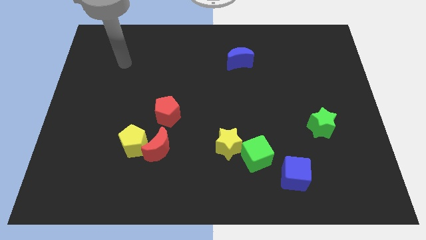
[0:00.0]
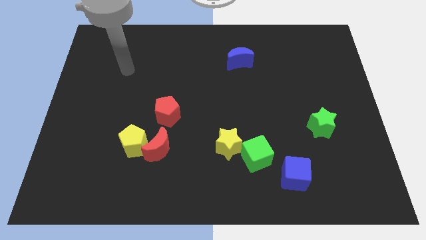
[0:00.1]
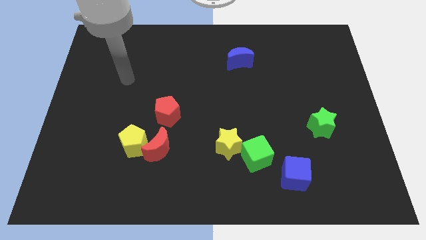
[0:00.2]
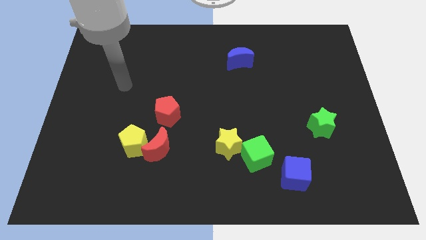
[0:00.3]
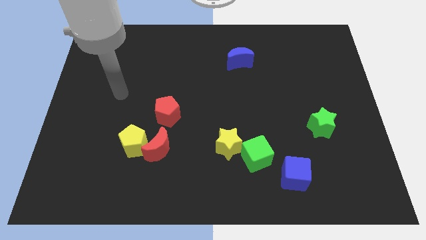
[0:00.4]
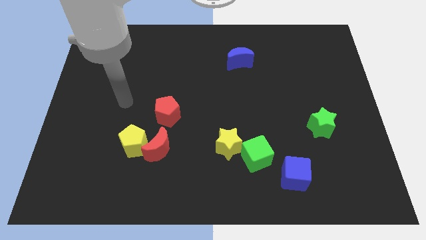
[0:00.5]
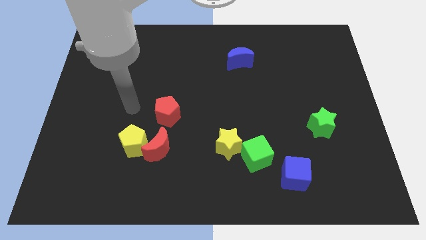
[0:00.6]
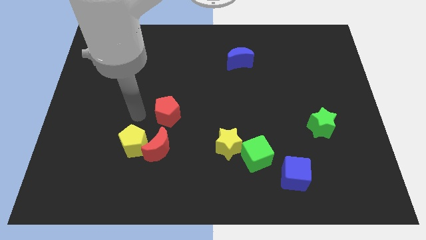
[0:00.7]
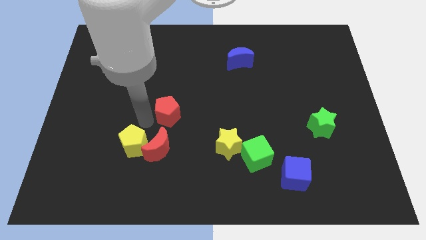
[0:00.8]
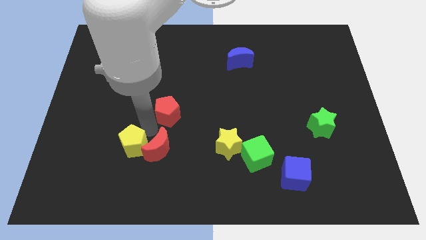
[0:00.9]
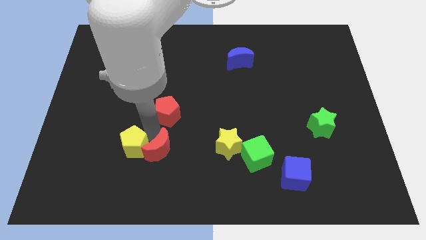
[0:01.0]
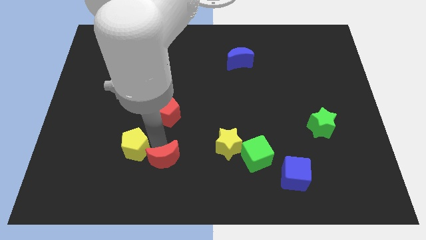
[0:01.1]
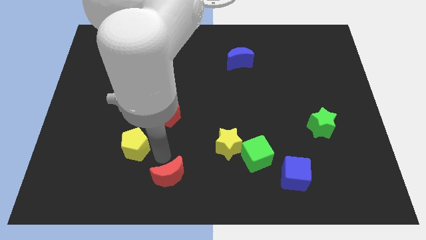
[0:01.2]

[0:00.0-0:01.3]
pull the yellow pentagon apart from the red moon

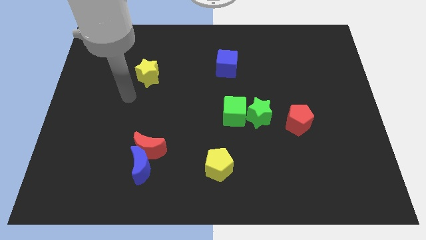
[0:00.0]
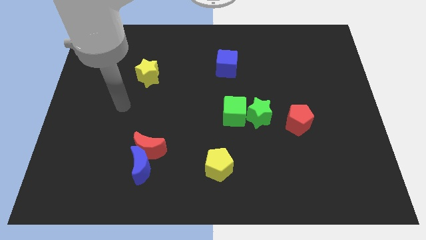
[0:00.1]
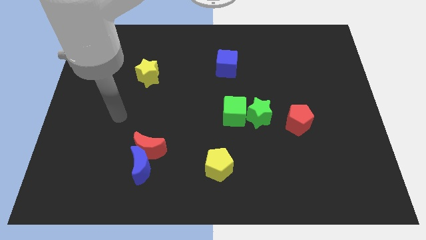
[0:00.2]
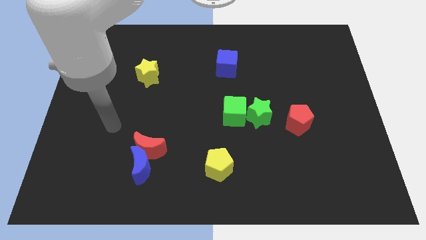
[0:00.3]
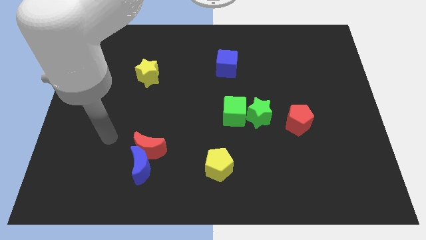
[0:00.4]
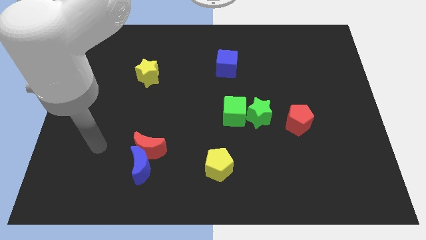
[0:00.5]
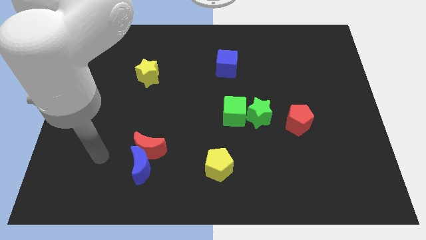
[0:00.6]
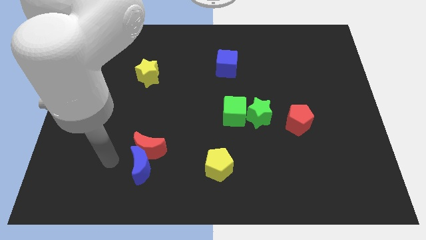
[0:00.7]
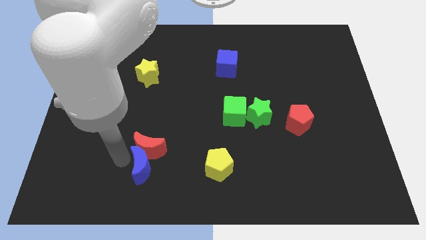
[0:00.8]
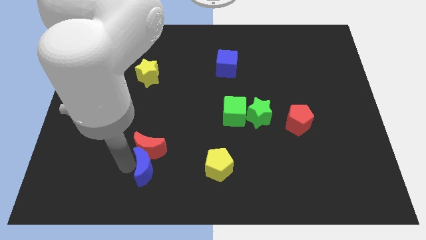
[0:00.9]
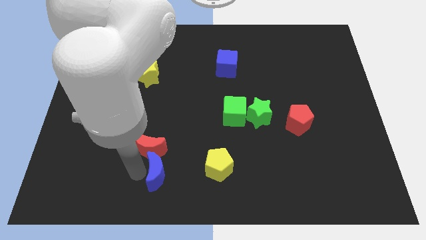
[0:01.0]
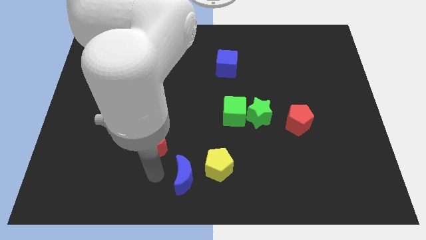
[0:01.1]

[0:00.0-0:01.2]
pull the red moon apart from the blue moon

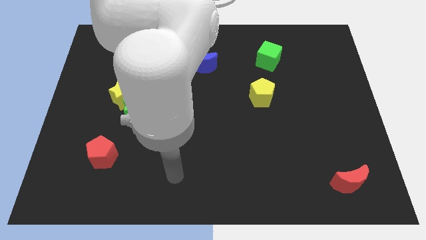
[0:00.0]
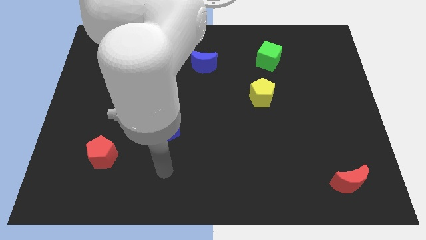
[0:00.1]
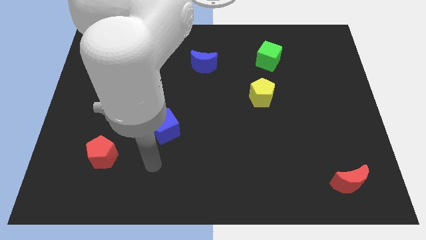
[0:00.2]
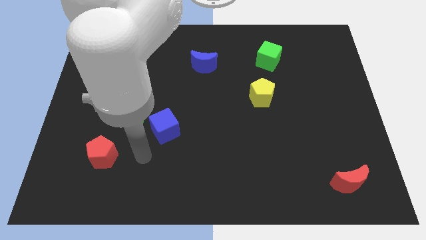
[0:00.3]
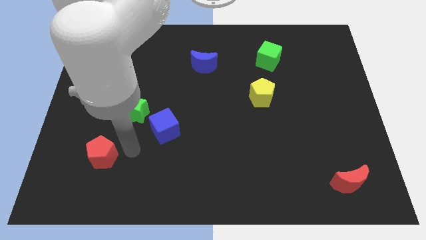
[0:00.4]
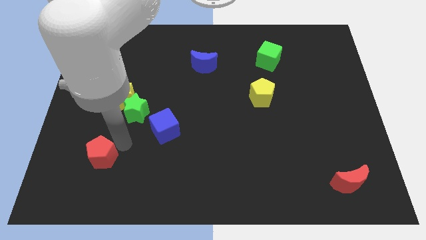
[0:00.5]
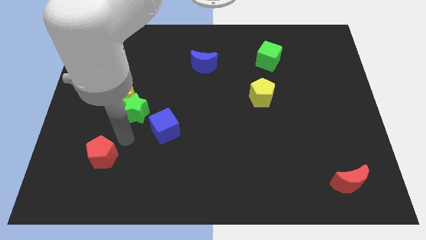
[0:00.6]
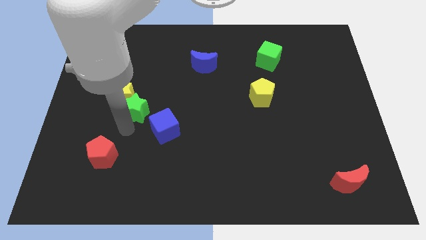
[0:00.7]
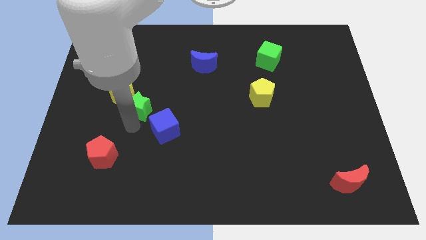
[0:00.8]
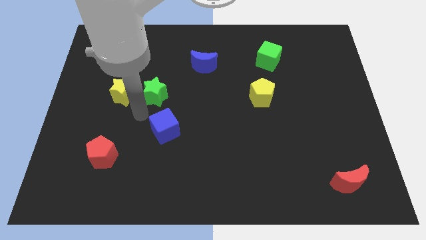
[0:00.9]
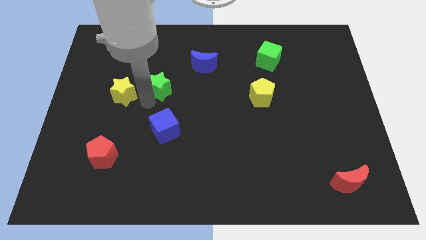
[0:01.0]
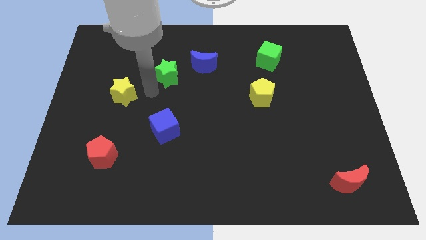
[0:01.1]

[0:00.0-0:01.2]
pull the yellow star apart from the green star

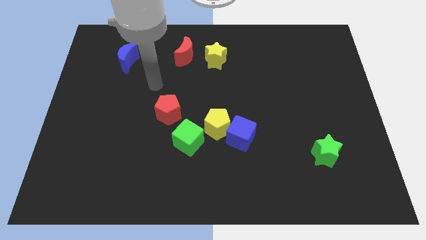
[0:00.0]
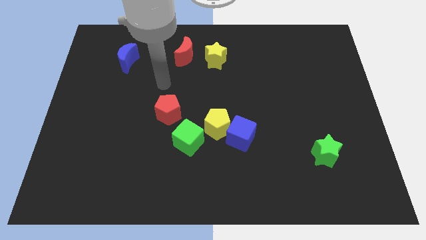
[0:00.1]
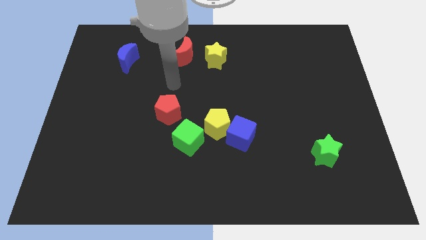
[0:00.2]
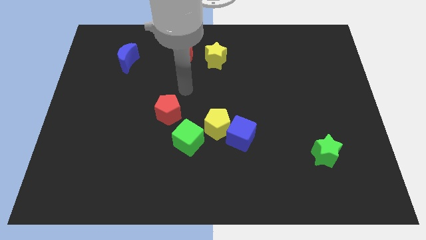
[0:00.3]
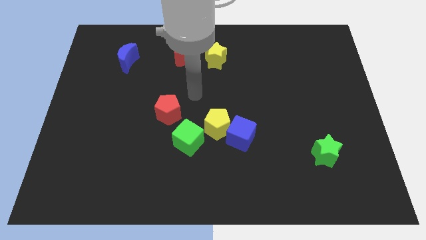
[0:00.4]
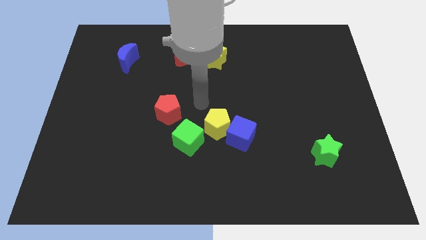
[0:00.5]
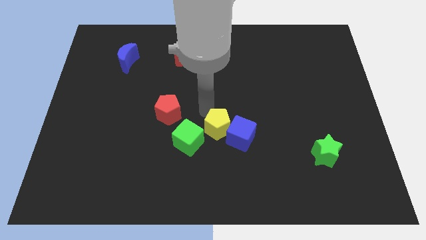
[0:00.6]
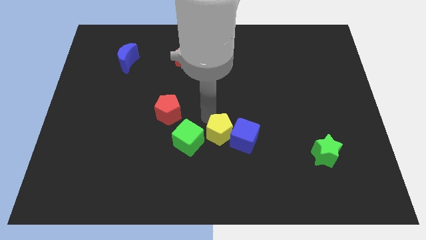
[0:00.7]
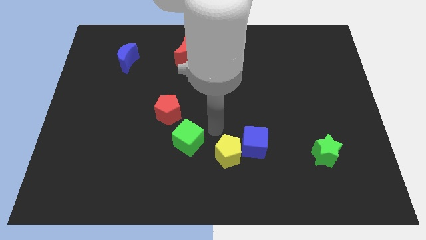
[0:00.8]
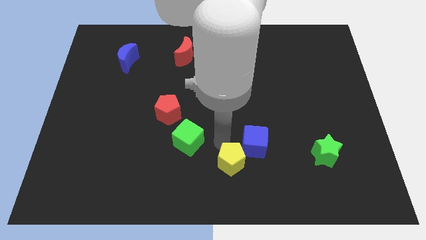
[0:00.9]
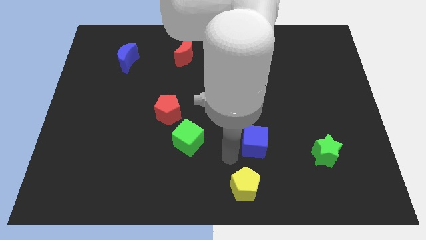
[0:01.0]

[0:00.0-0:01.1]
move the blue cube away from the yellow pentagon

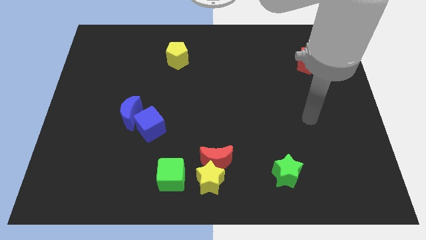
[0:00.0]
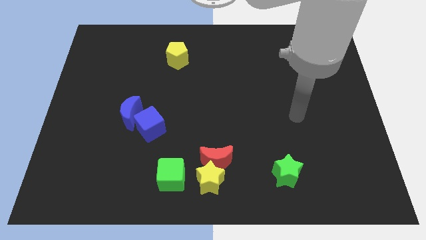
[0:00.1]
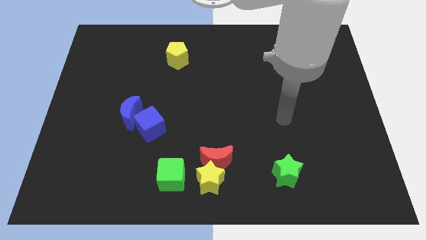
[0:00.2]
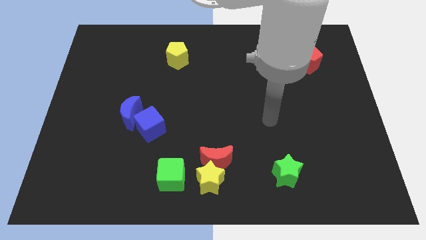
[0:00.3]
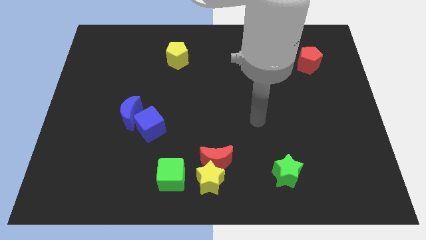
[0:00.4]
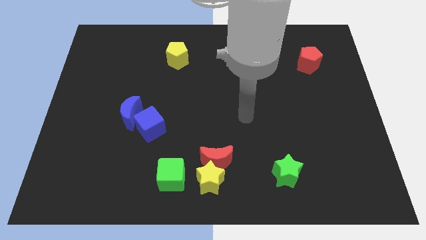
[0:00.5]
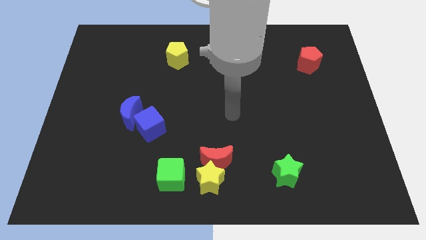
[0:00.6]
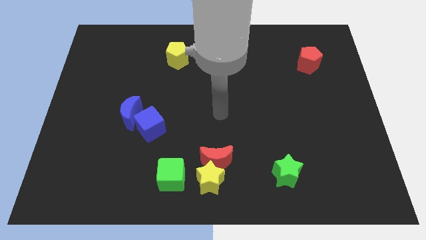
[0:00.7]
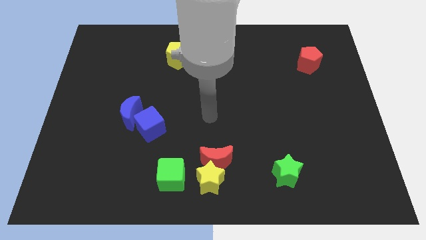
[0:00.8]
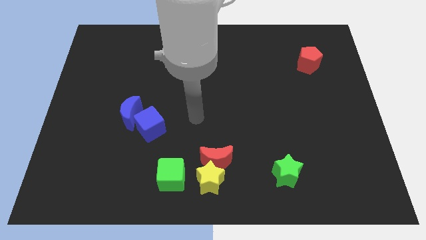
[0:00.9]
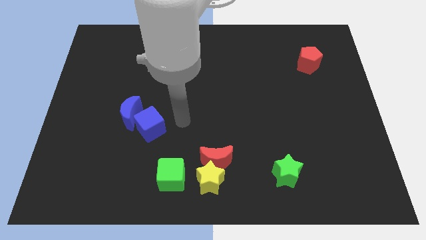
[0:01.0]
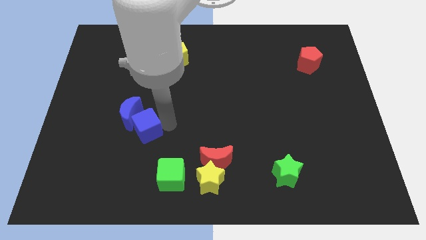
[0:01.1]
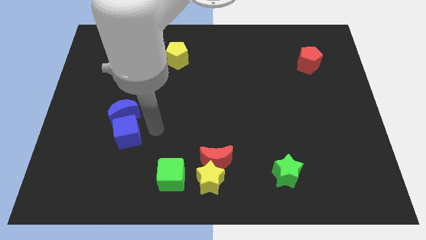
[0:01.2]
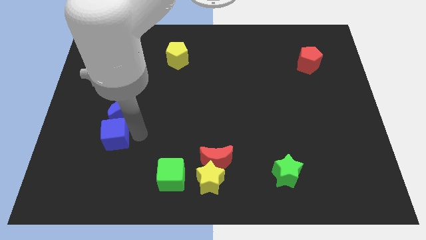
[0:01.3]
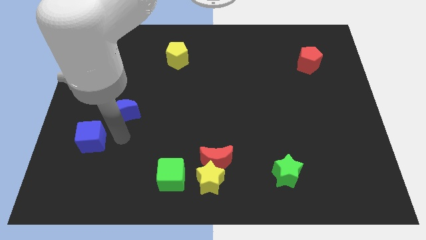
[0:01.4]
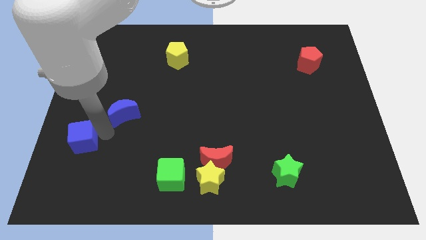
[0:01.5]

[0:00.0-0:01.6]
move the blue moon away from the blue cube

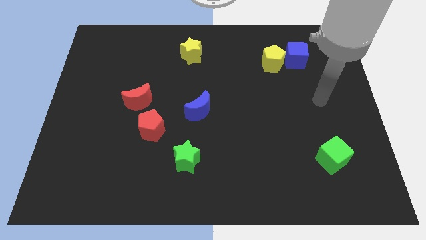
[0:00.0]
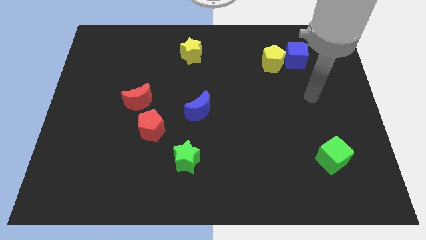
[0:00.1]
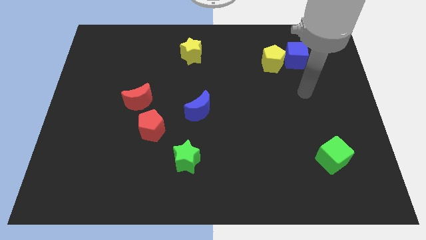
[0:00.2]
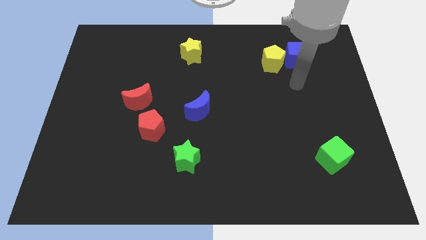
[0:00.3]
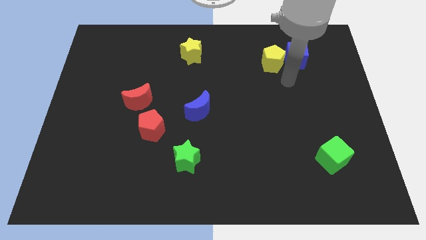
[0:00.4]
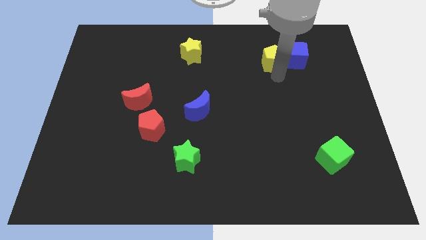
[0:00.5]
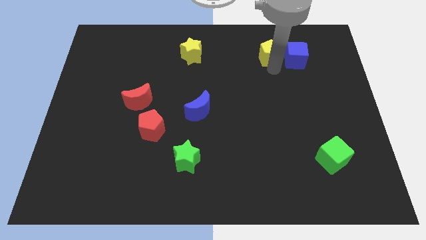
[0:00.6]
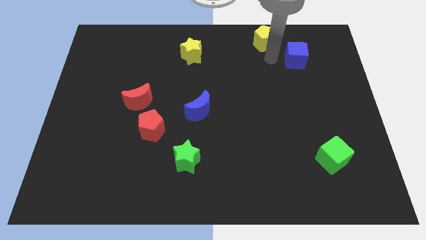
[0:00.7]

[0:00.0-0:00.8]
pull the blue cube apart from the yellow pentagon

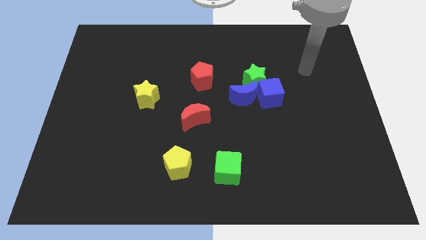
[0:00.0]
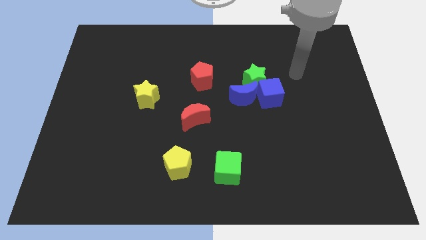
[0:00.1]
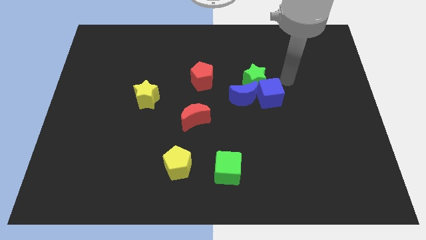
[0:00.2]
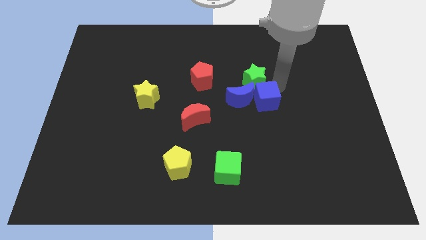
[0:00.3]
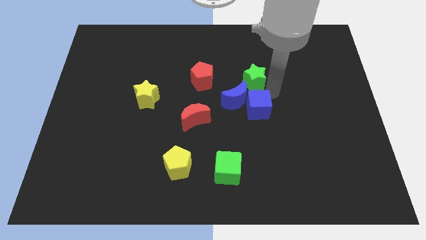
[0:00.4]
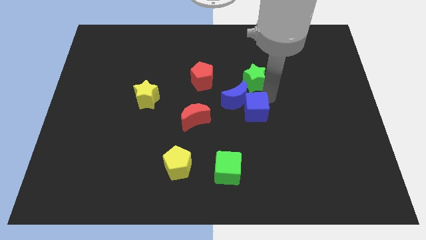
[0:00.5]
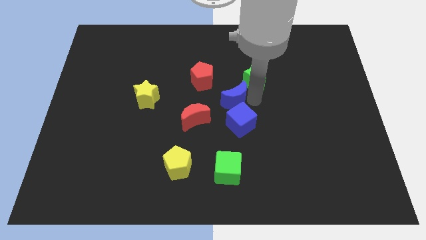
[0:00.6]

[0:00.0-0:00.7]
pull the green star apart from the blue cube and blue moon

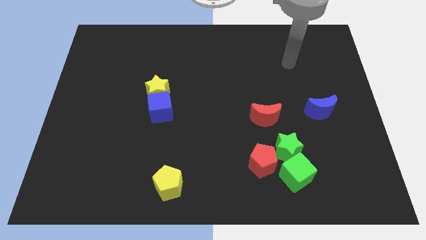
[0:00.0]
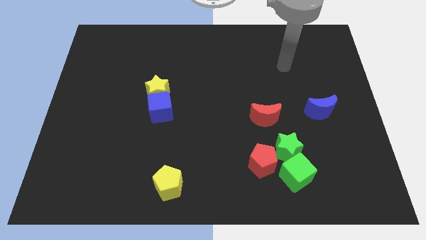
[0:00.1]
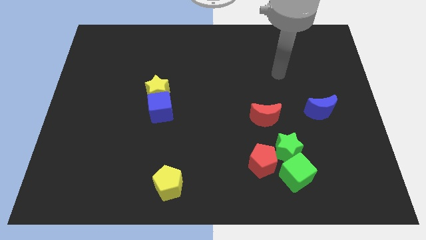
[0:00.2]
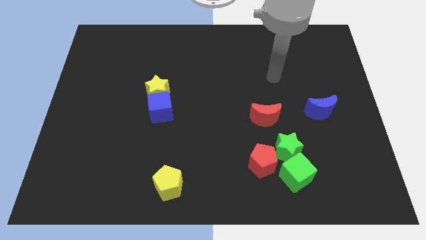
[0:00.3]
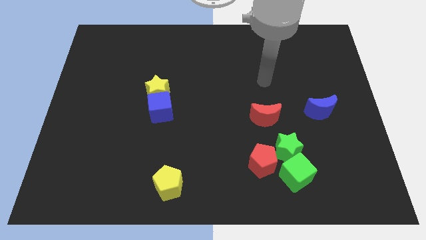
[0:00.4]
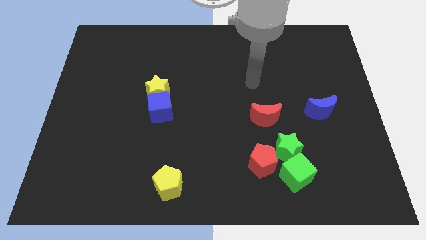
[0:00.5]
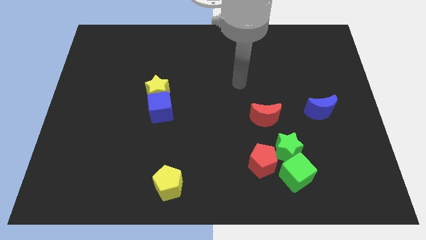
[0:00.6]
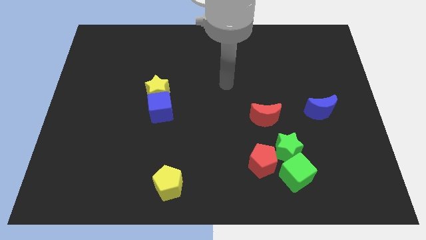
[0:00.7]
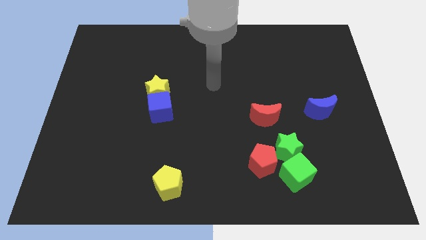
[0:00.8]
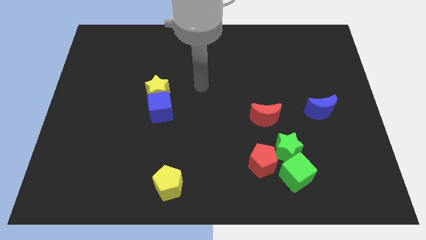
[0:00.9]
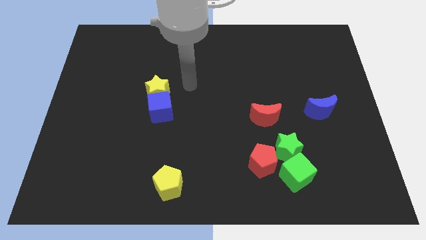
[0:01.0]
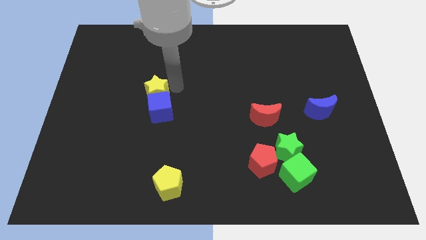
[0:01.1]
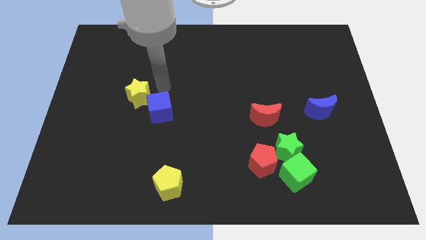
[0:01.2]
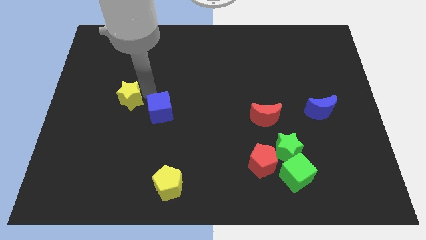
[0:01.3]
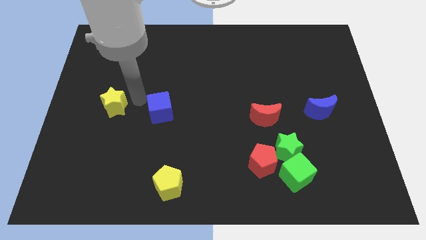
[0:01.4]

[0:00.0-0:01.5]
move the blue cube away from the yellow star
